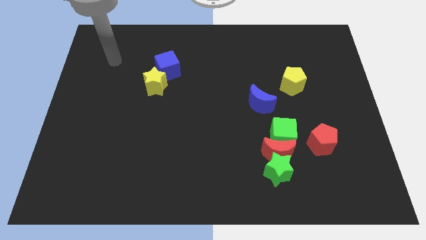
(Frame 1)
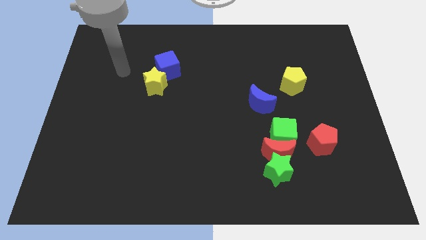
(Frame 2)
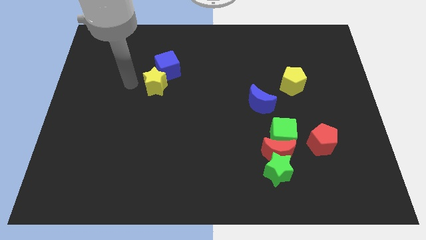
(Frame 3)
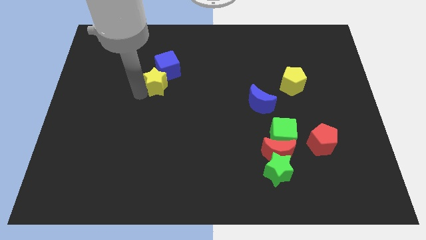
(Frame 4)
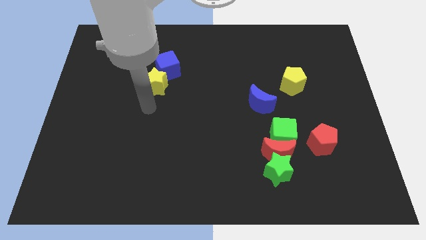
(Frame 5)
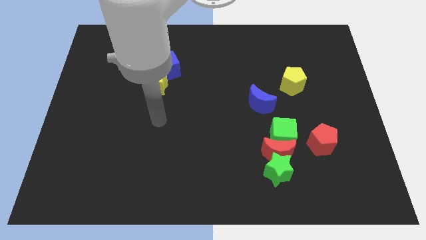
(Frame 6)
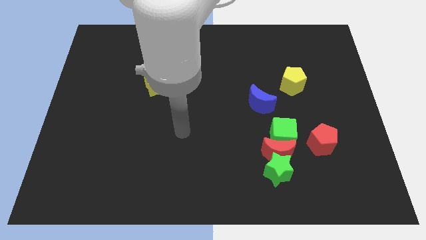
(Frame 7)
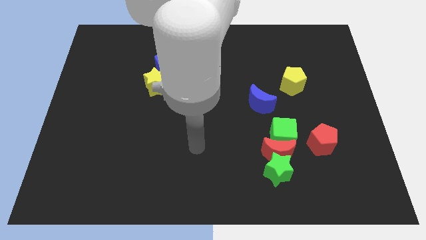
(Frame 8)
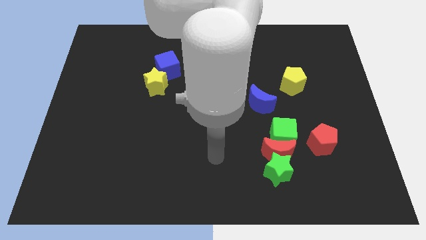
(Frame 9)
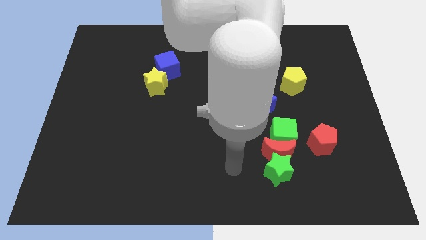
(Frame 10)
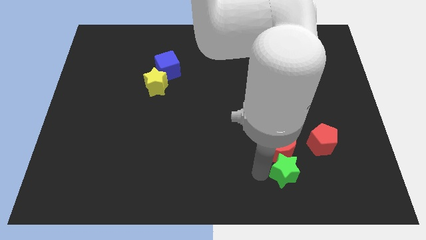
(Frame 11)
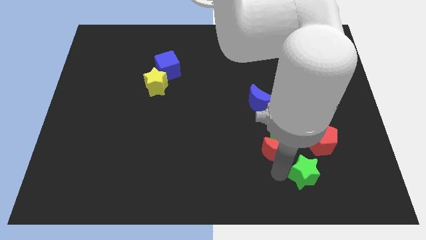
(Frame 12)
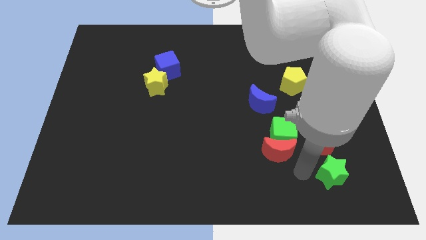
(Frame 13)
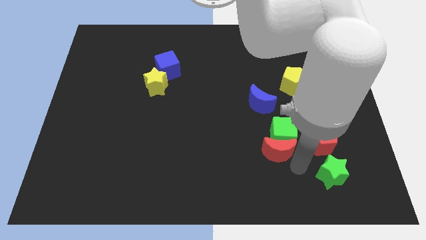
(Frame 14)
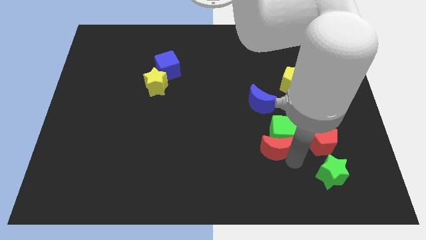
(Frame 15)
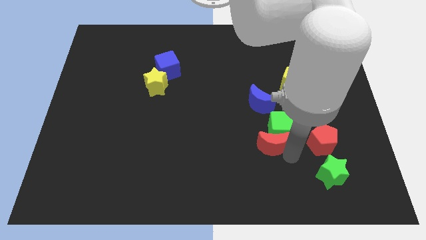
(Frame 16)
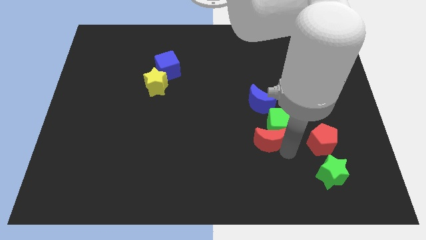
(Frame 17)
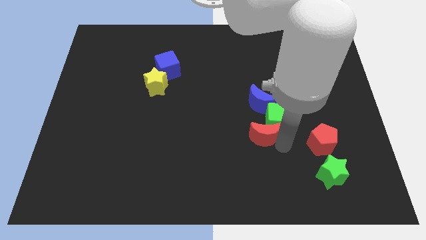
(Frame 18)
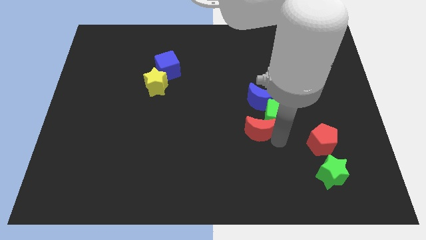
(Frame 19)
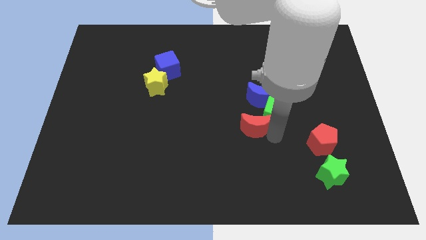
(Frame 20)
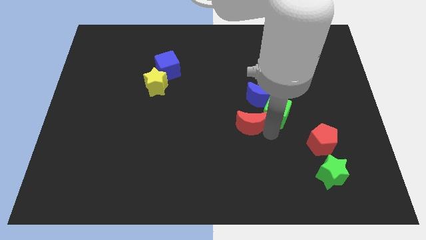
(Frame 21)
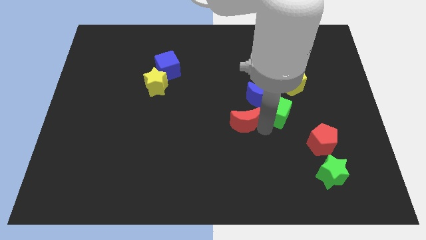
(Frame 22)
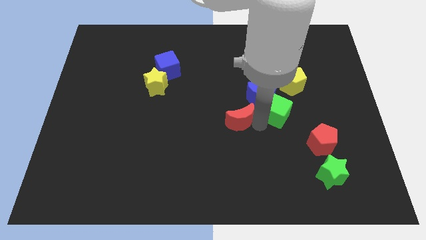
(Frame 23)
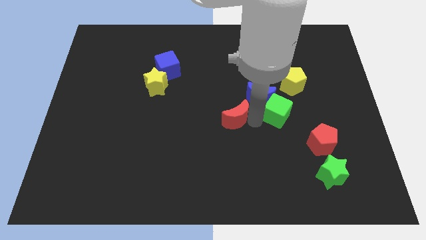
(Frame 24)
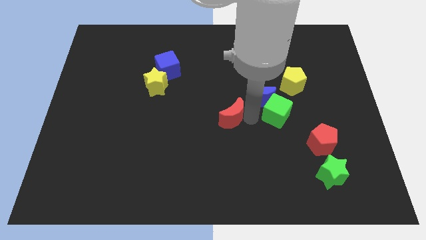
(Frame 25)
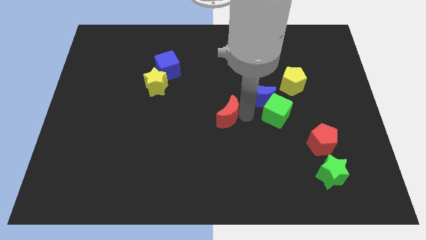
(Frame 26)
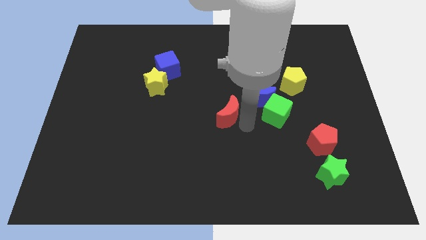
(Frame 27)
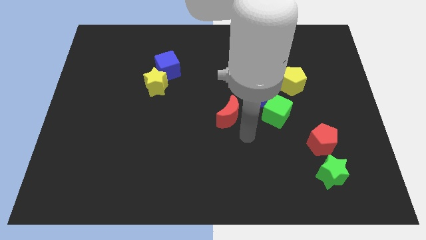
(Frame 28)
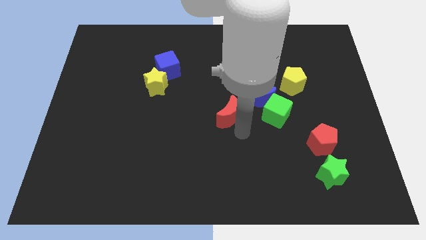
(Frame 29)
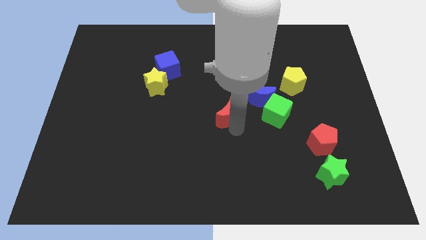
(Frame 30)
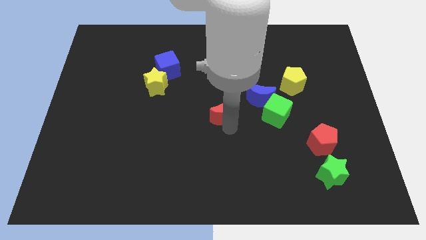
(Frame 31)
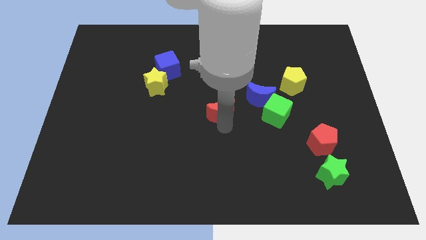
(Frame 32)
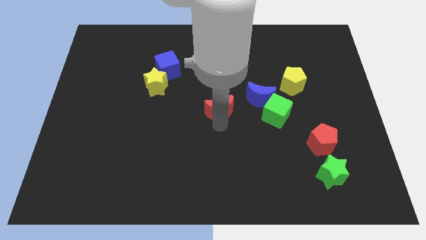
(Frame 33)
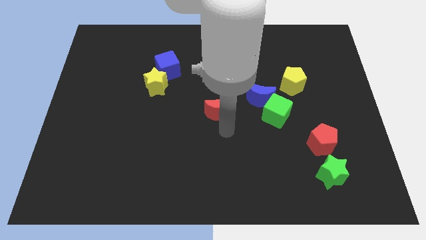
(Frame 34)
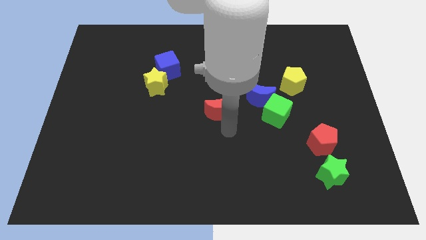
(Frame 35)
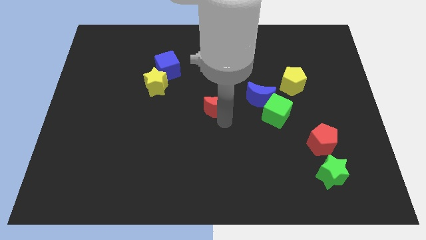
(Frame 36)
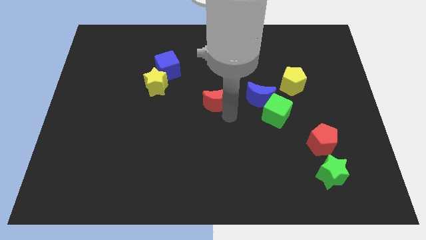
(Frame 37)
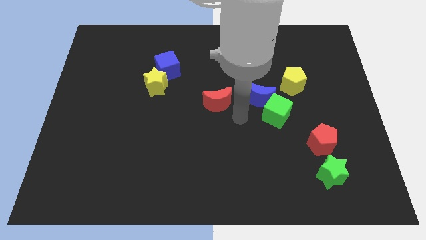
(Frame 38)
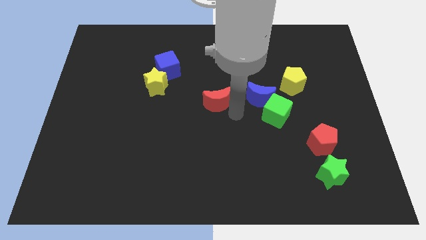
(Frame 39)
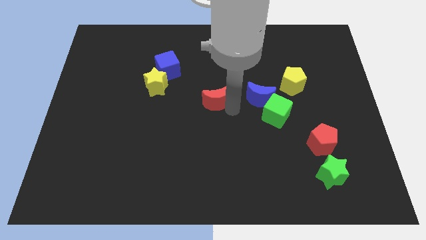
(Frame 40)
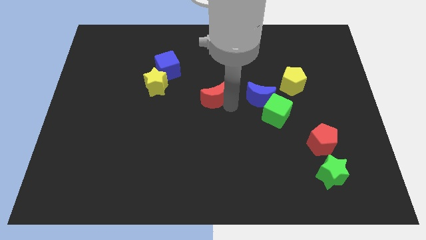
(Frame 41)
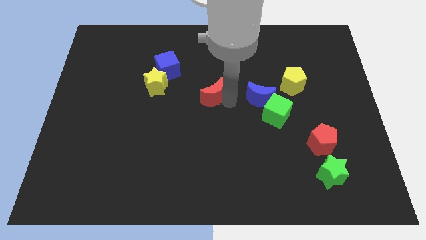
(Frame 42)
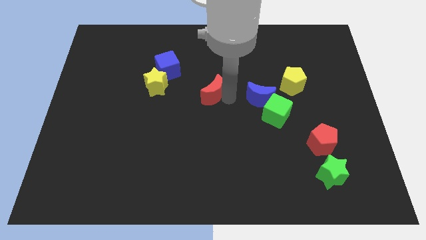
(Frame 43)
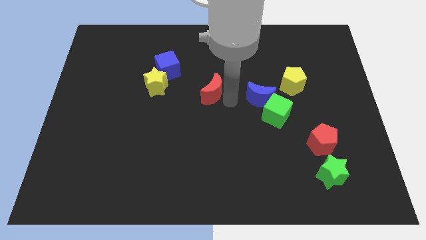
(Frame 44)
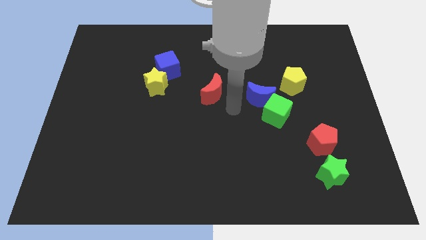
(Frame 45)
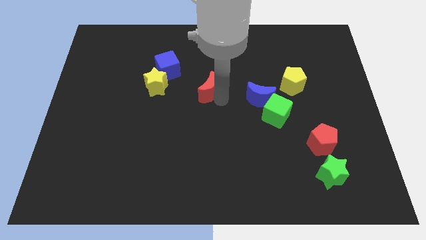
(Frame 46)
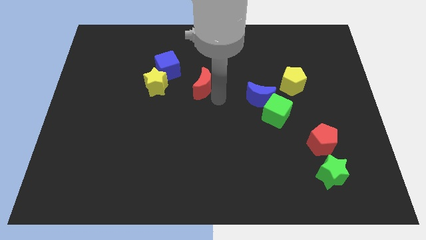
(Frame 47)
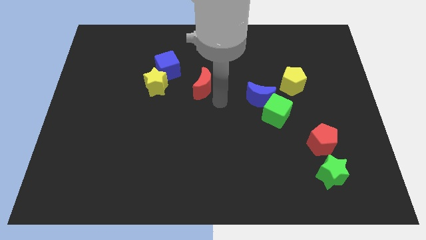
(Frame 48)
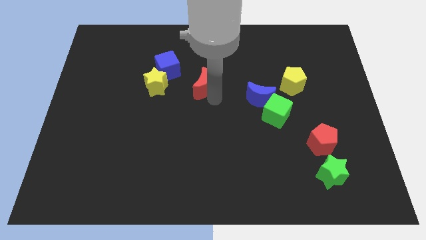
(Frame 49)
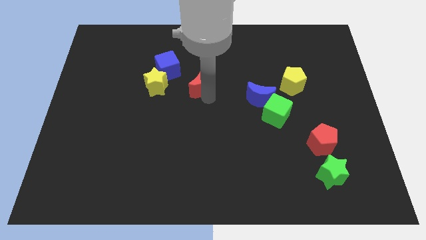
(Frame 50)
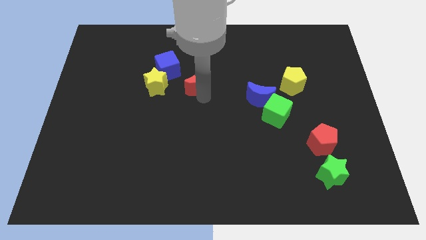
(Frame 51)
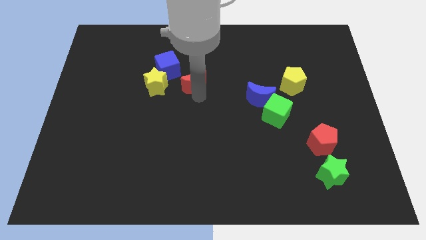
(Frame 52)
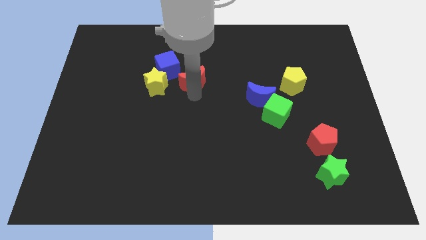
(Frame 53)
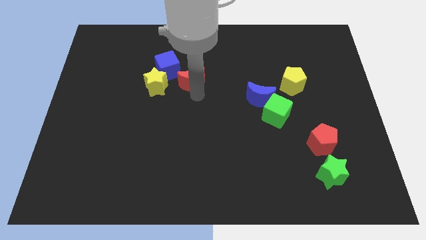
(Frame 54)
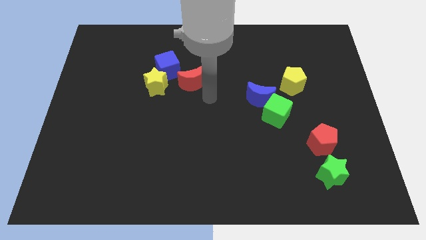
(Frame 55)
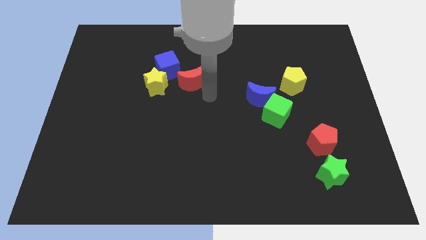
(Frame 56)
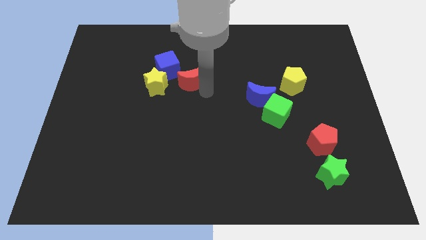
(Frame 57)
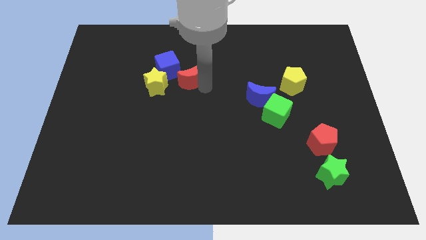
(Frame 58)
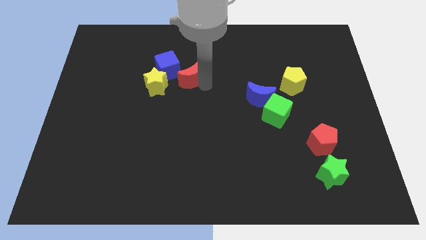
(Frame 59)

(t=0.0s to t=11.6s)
put the red moon diagonally up and to the right of the yellow star

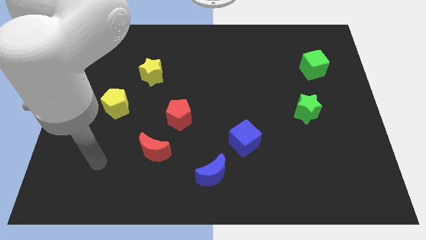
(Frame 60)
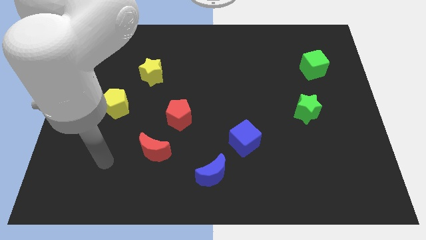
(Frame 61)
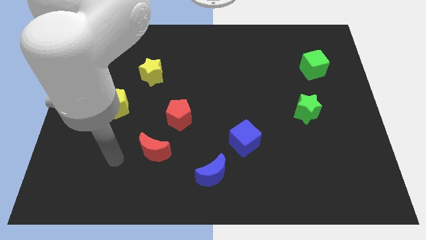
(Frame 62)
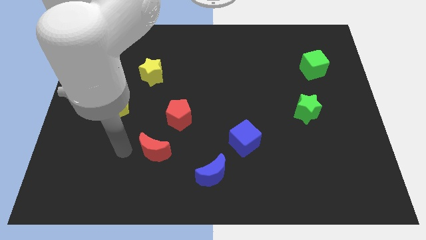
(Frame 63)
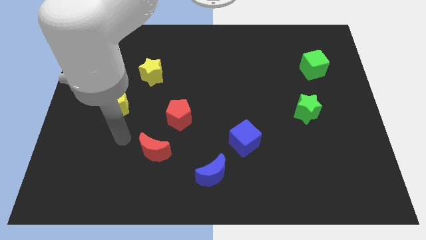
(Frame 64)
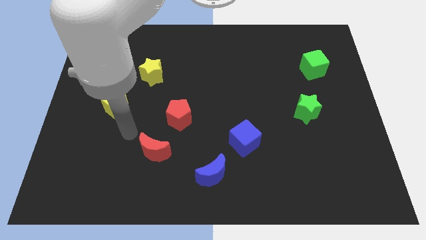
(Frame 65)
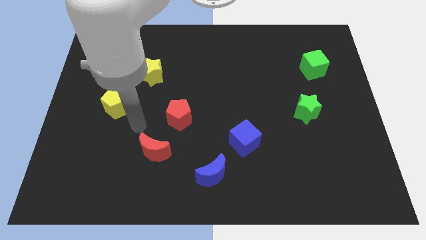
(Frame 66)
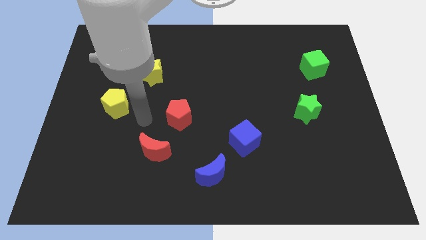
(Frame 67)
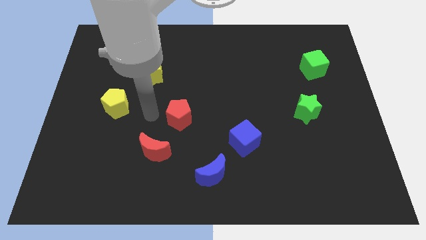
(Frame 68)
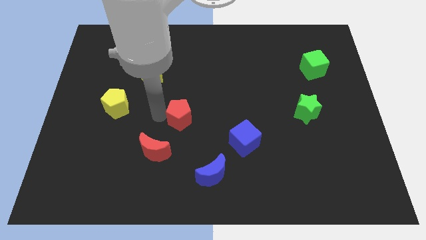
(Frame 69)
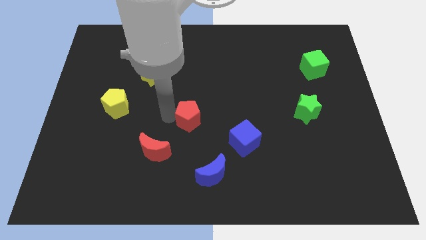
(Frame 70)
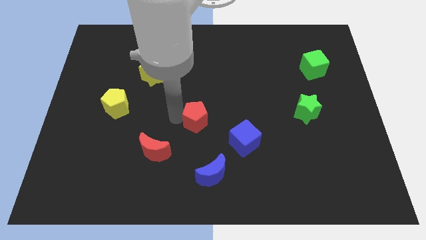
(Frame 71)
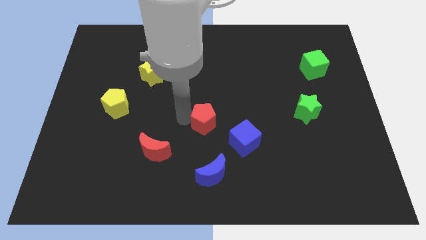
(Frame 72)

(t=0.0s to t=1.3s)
put the red pentagon to the top left side of the blue cube

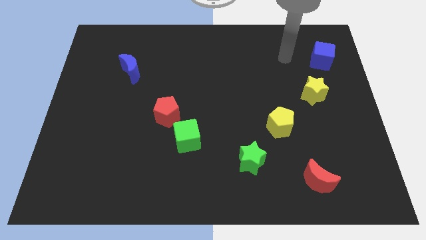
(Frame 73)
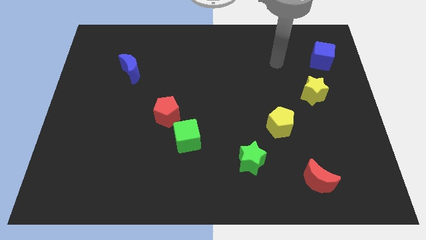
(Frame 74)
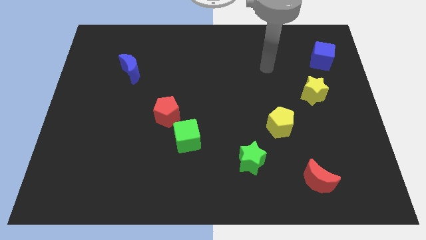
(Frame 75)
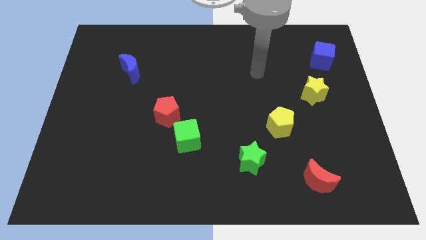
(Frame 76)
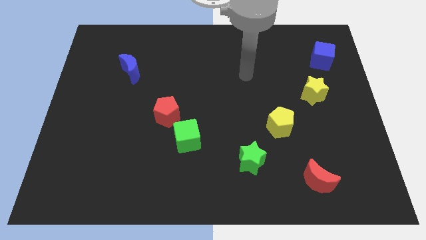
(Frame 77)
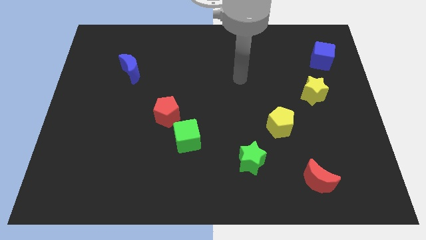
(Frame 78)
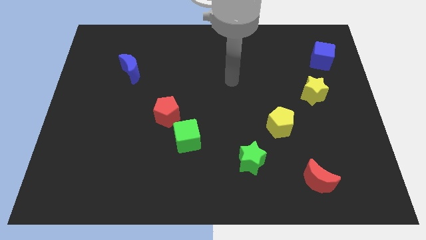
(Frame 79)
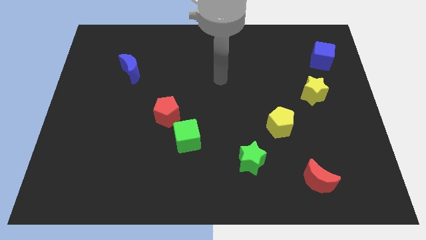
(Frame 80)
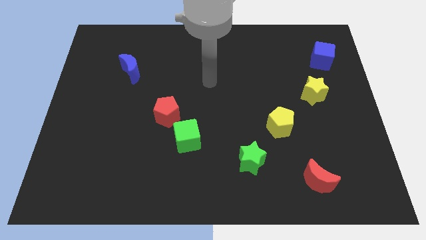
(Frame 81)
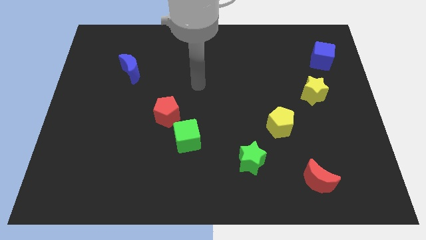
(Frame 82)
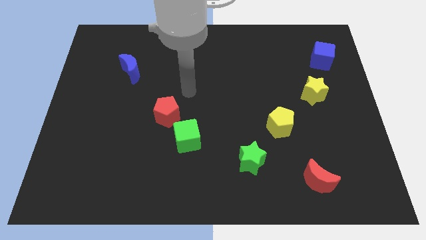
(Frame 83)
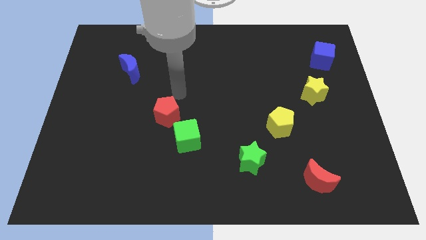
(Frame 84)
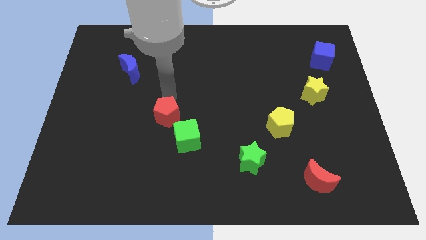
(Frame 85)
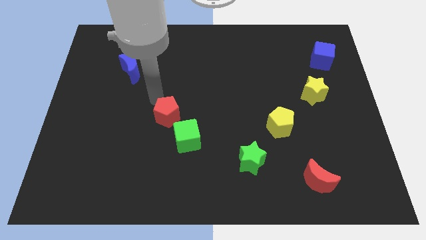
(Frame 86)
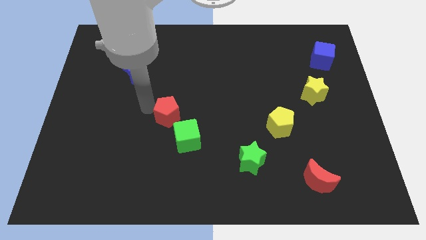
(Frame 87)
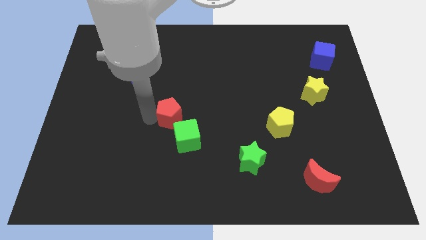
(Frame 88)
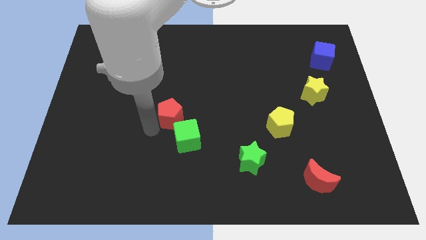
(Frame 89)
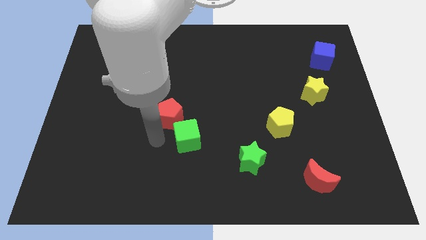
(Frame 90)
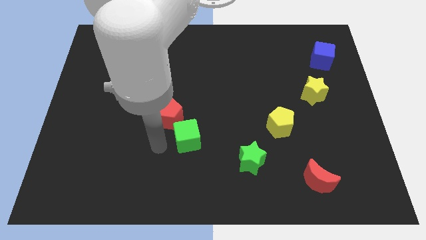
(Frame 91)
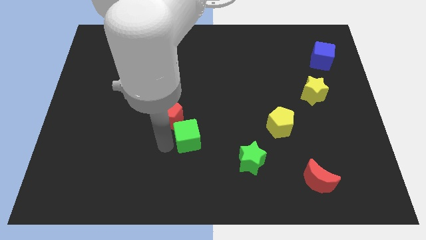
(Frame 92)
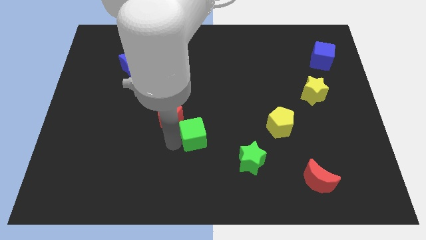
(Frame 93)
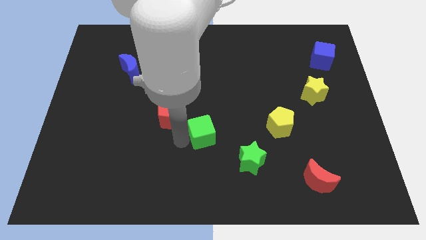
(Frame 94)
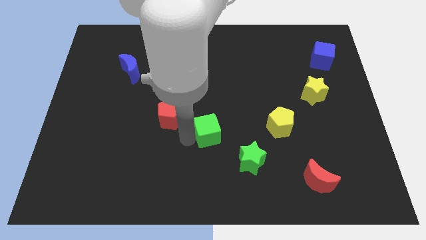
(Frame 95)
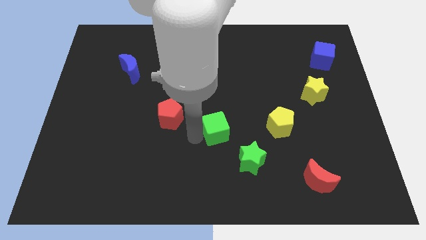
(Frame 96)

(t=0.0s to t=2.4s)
push the green cube left of the yellow pentagon
